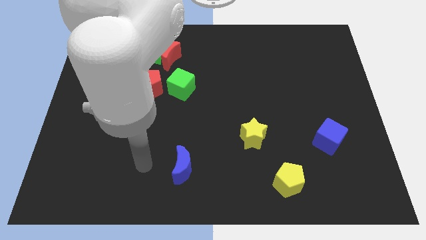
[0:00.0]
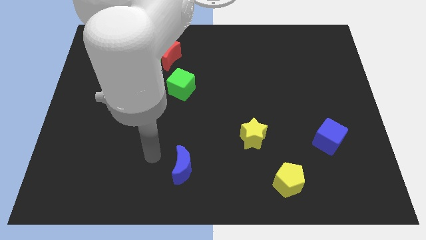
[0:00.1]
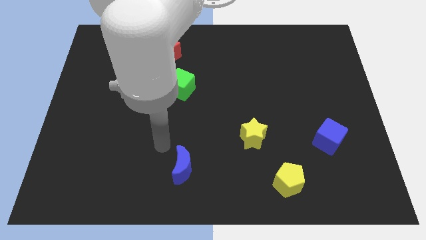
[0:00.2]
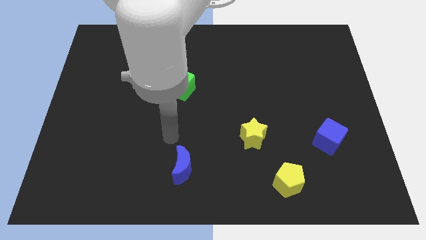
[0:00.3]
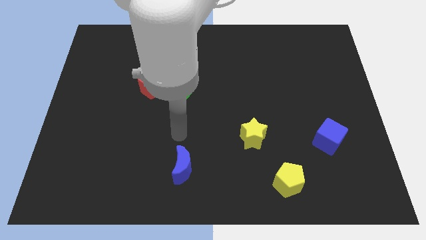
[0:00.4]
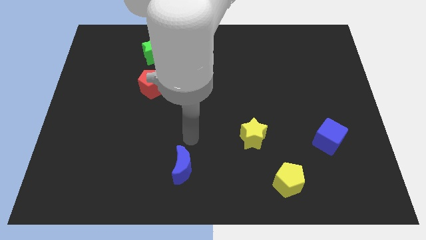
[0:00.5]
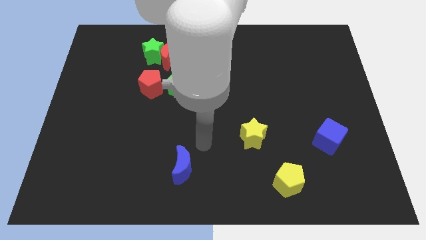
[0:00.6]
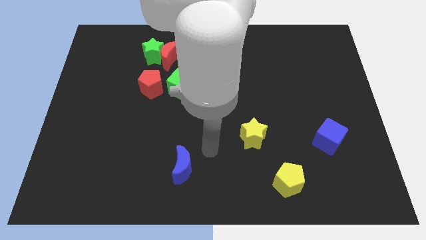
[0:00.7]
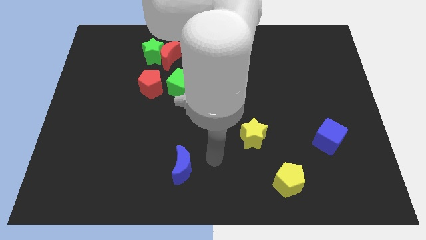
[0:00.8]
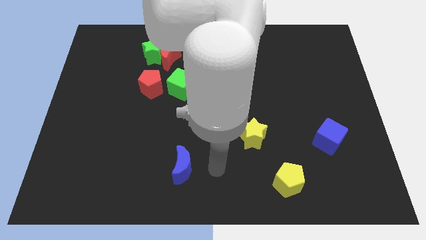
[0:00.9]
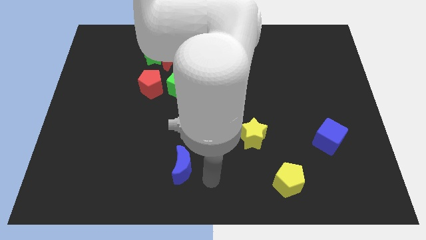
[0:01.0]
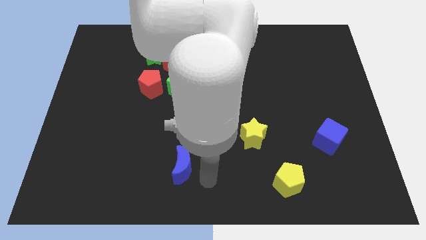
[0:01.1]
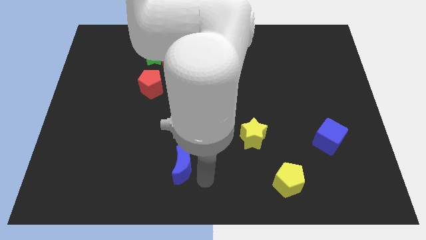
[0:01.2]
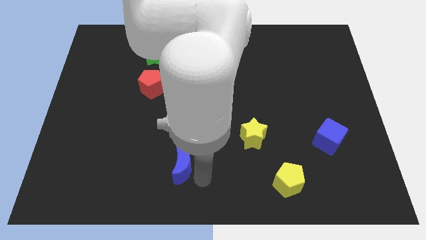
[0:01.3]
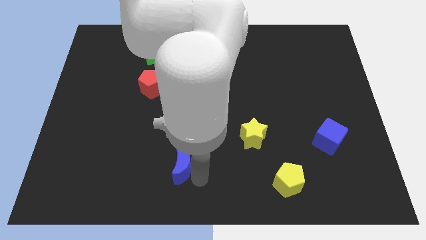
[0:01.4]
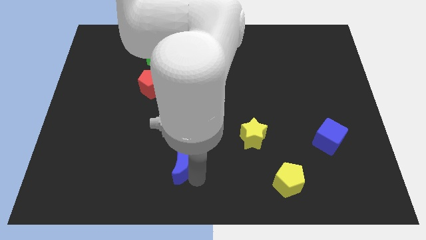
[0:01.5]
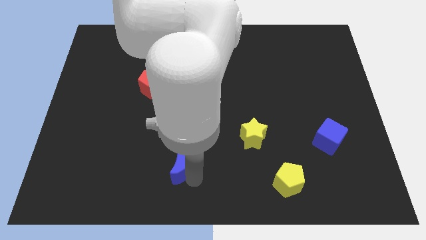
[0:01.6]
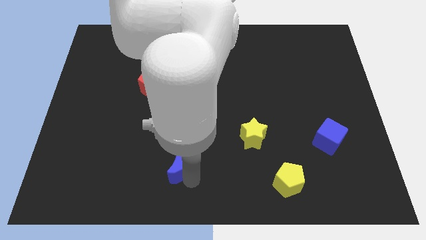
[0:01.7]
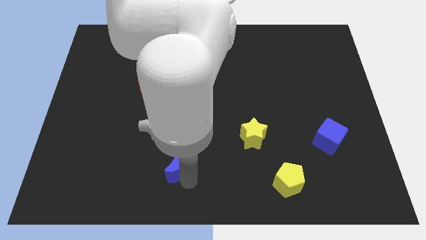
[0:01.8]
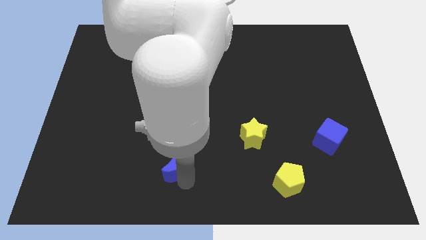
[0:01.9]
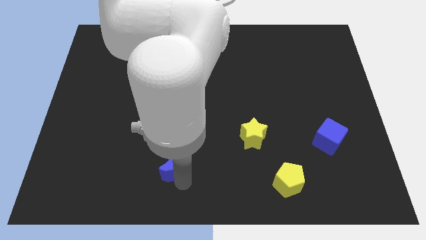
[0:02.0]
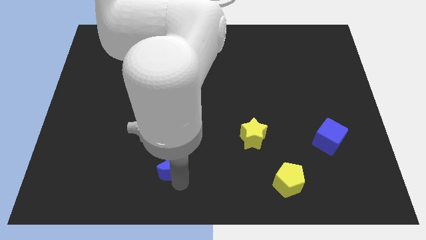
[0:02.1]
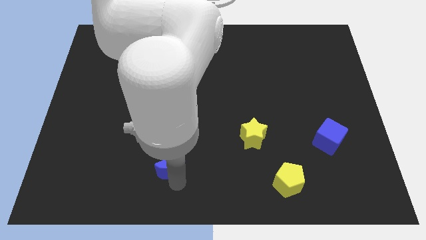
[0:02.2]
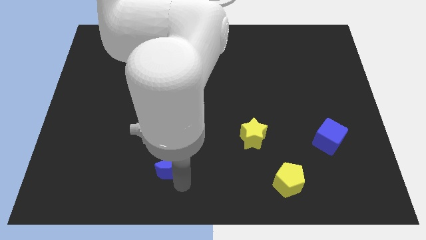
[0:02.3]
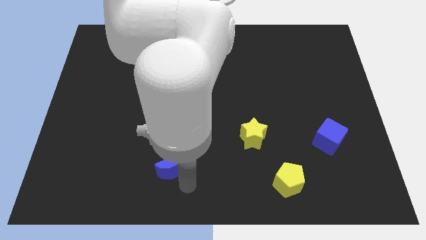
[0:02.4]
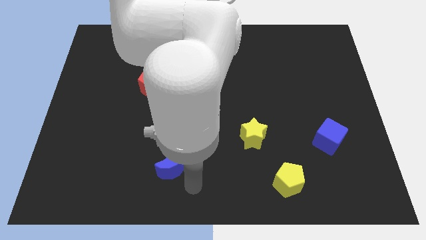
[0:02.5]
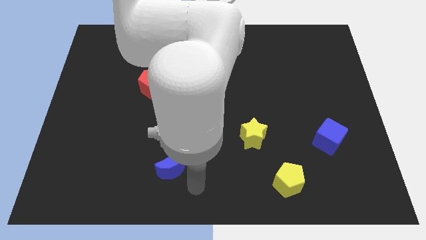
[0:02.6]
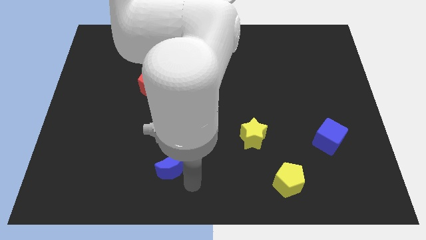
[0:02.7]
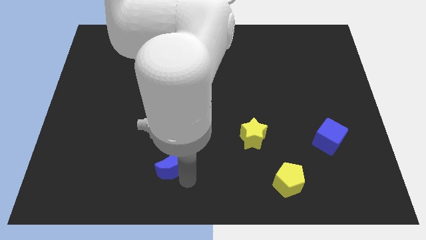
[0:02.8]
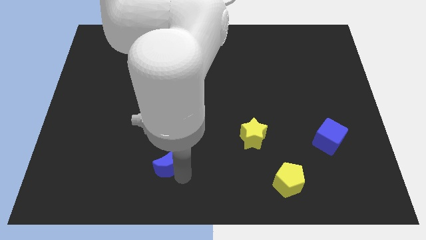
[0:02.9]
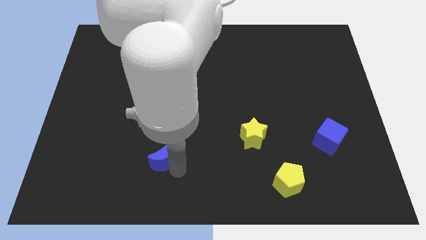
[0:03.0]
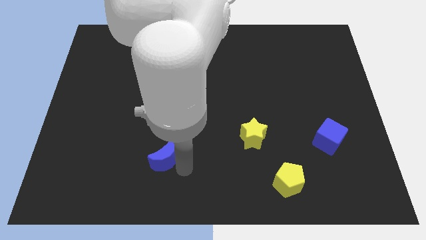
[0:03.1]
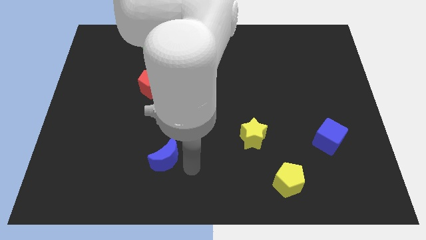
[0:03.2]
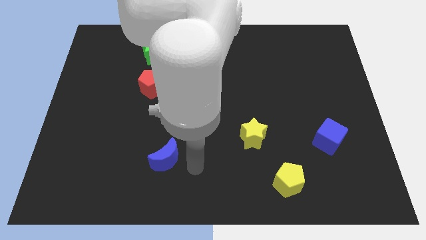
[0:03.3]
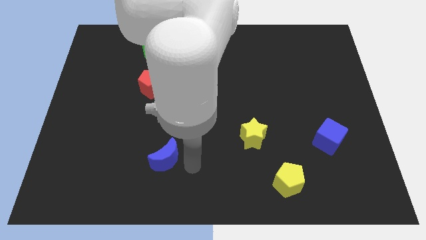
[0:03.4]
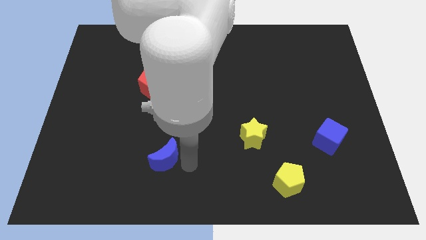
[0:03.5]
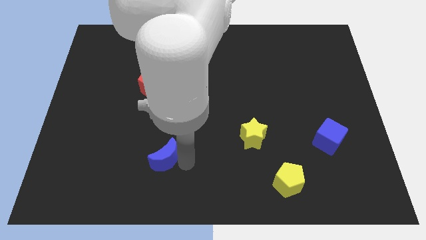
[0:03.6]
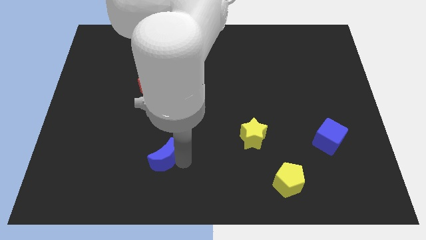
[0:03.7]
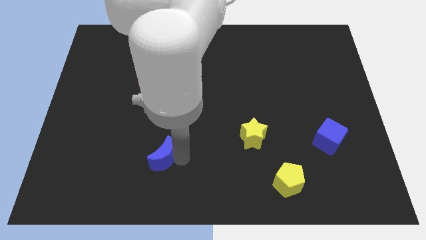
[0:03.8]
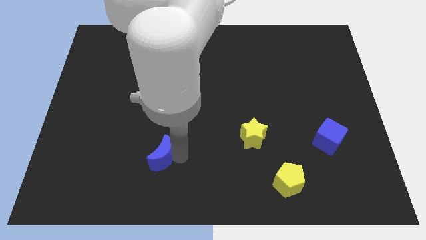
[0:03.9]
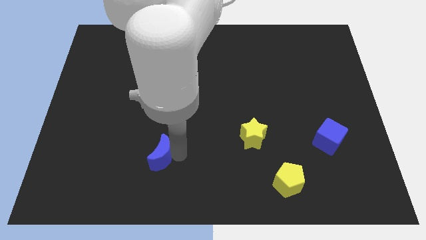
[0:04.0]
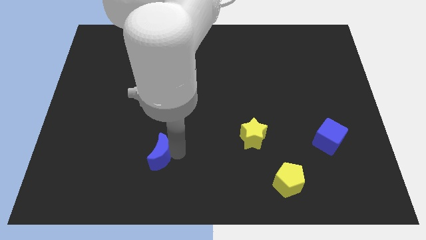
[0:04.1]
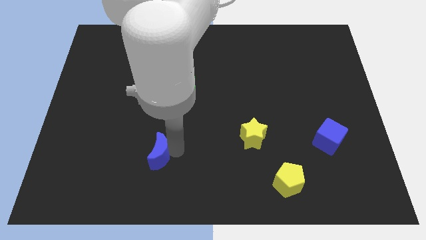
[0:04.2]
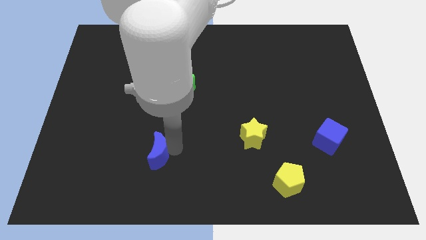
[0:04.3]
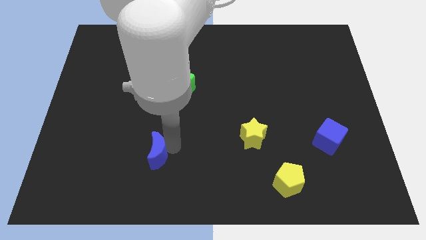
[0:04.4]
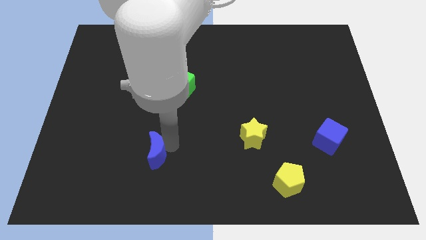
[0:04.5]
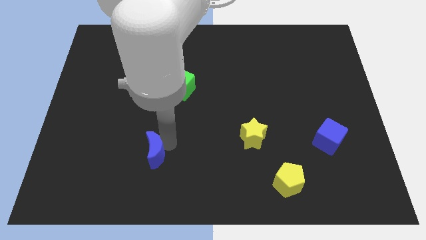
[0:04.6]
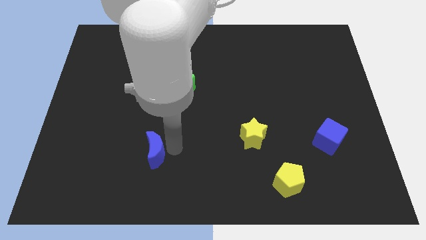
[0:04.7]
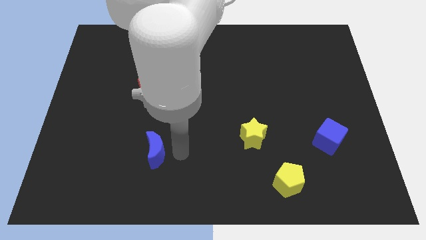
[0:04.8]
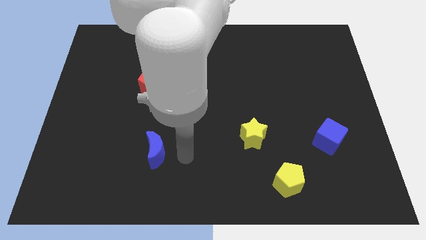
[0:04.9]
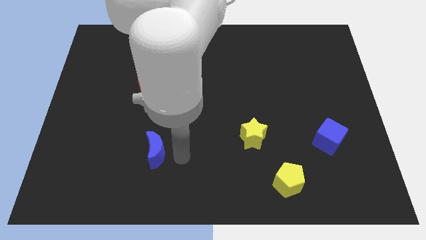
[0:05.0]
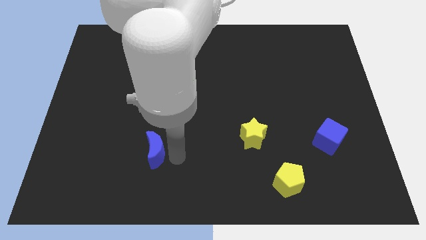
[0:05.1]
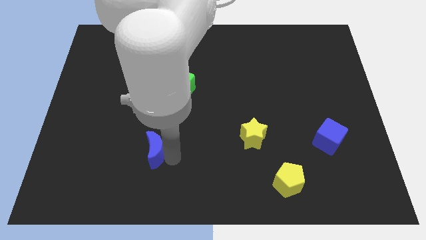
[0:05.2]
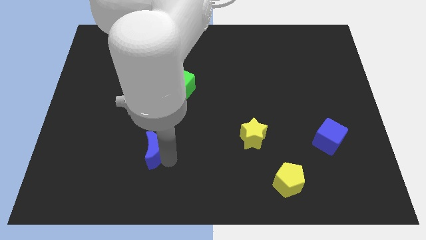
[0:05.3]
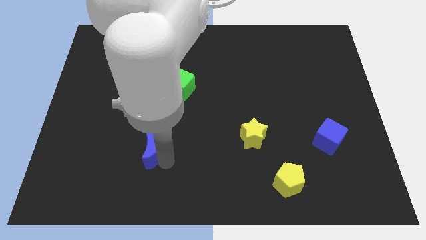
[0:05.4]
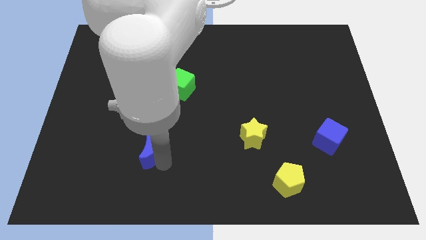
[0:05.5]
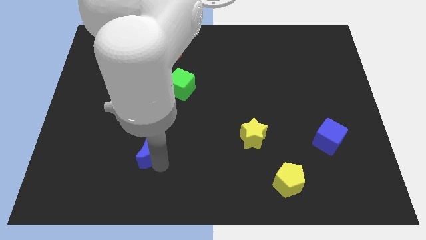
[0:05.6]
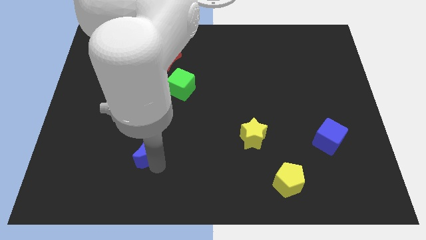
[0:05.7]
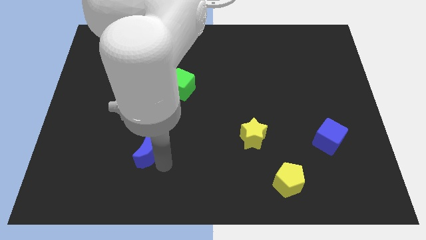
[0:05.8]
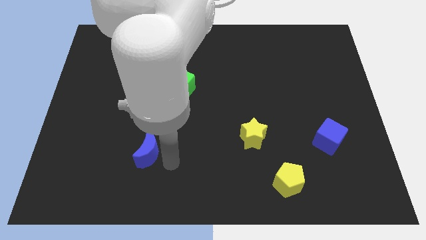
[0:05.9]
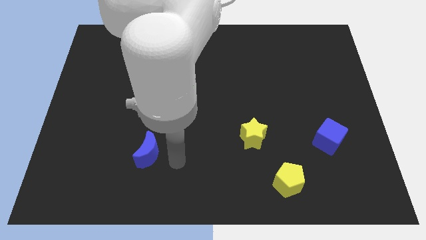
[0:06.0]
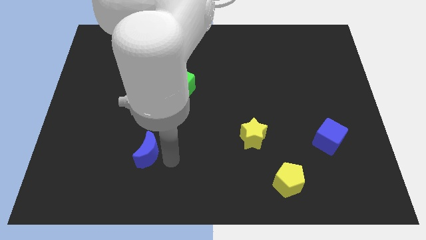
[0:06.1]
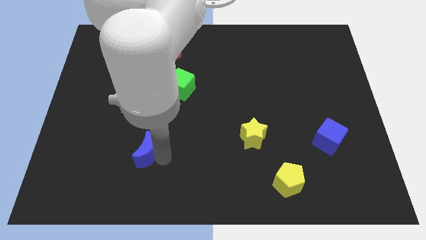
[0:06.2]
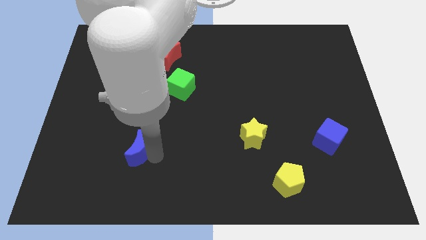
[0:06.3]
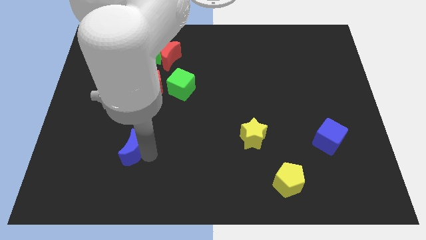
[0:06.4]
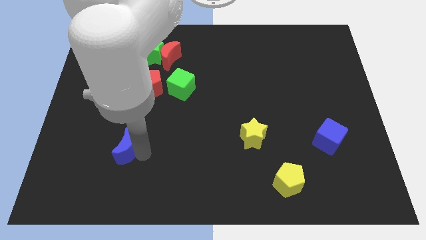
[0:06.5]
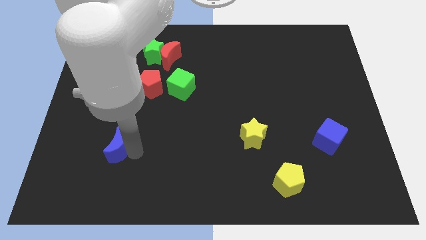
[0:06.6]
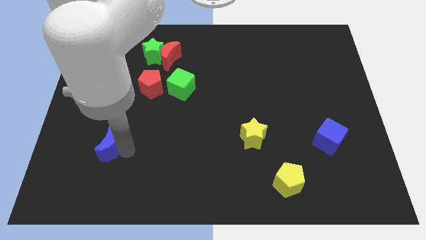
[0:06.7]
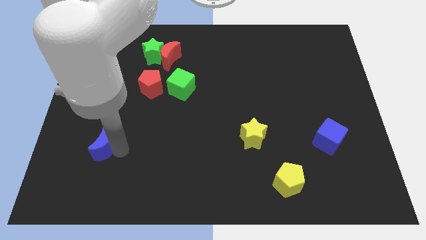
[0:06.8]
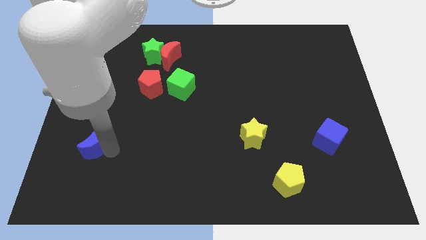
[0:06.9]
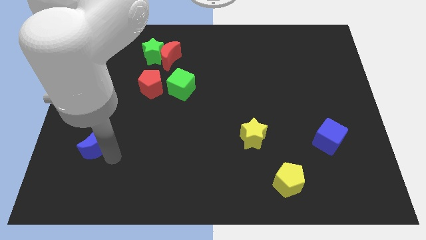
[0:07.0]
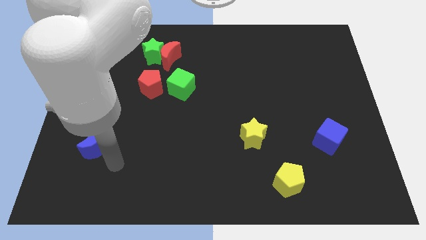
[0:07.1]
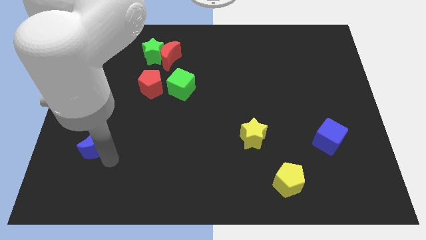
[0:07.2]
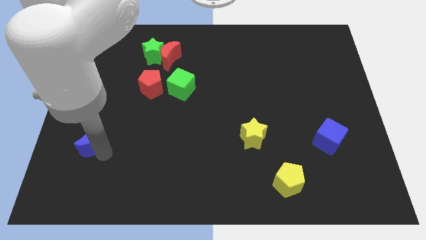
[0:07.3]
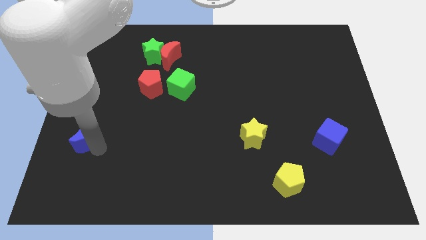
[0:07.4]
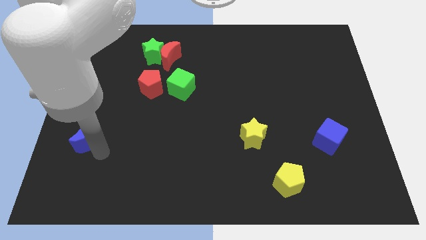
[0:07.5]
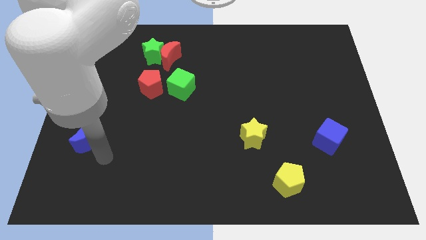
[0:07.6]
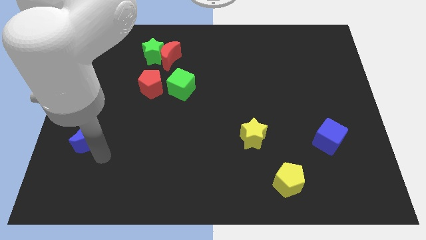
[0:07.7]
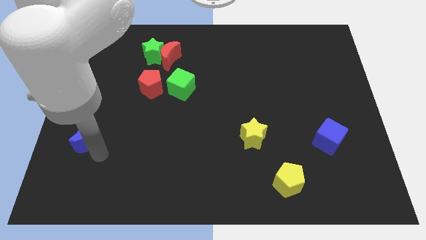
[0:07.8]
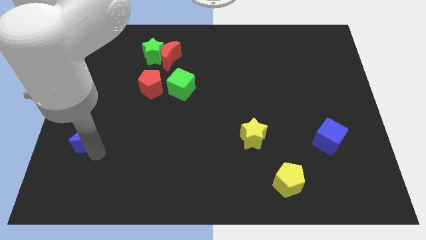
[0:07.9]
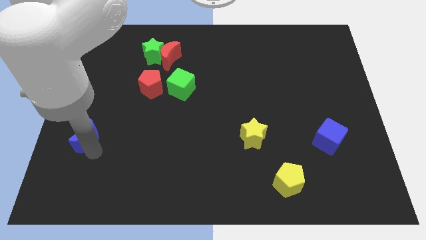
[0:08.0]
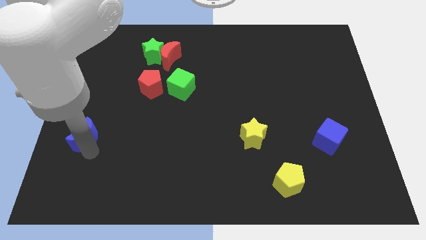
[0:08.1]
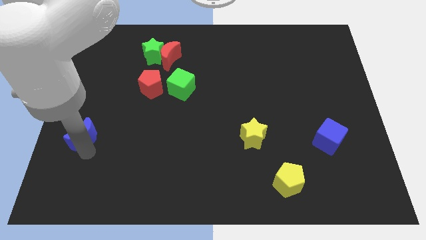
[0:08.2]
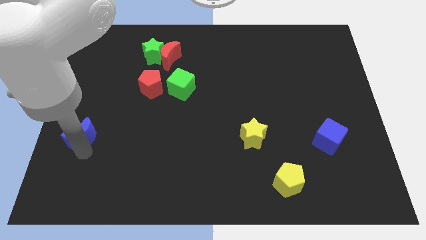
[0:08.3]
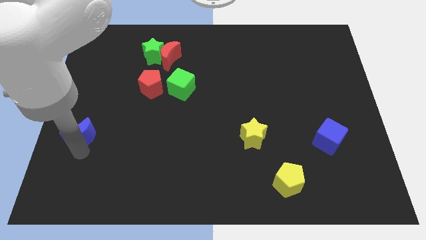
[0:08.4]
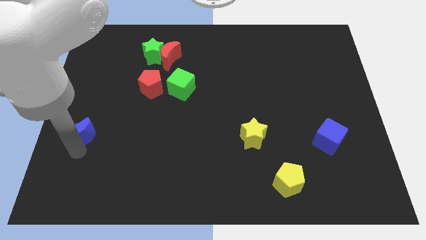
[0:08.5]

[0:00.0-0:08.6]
put the blue moon to the left side of the board
